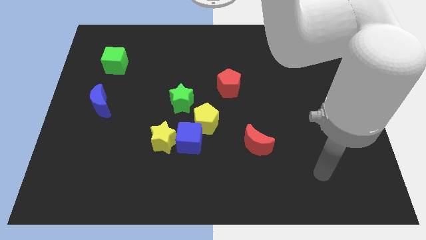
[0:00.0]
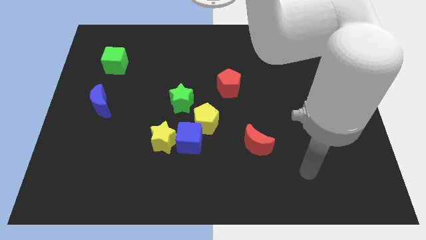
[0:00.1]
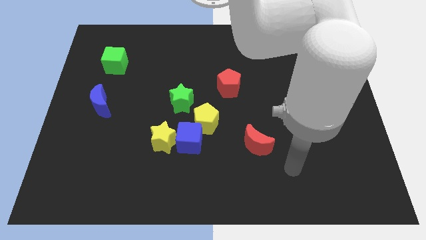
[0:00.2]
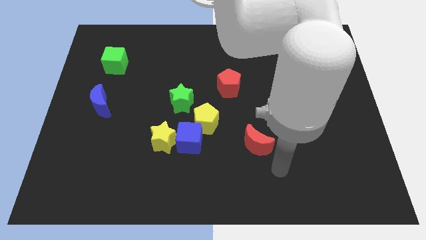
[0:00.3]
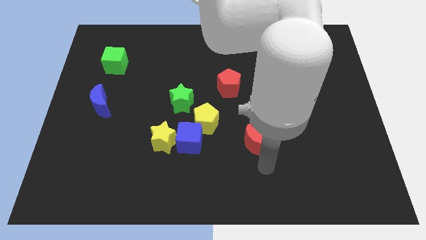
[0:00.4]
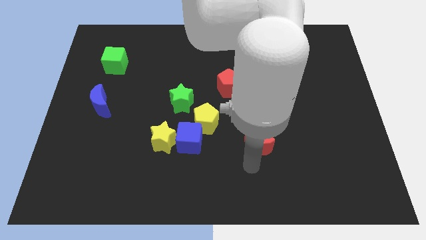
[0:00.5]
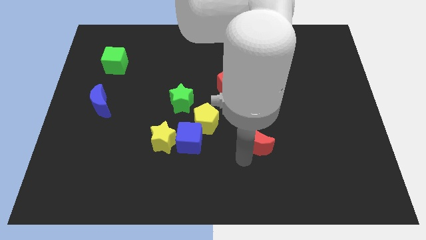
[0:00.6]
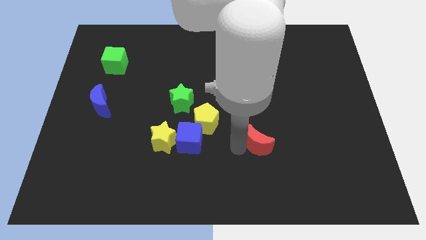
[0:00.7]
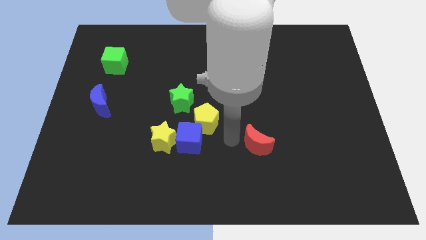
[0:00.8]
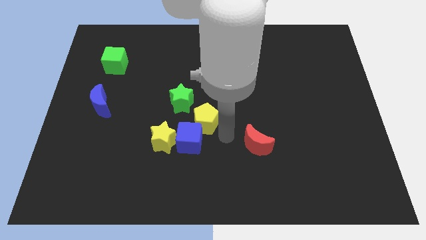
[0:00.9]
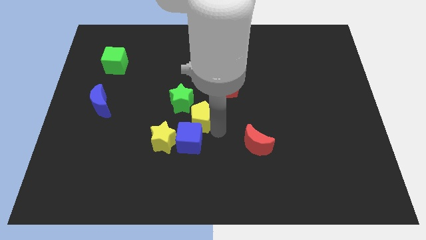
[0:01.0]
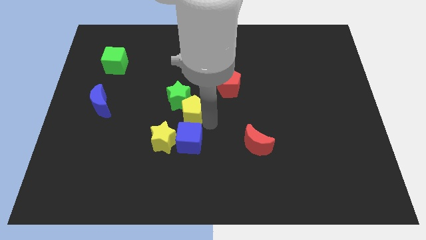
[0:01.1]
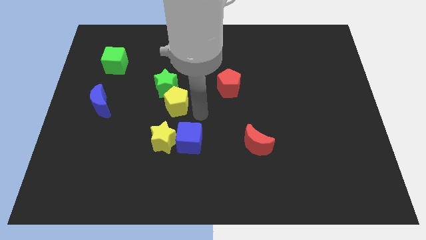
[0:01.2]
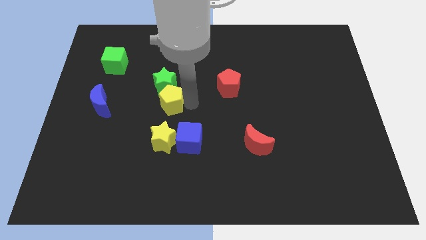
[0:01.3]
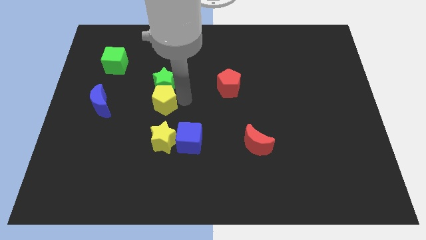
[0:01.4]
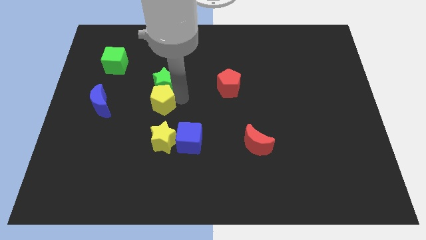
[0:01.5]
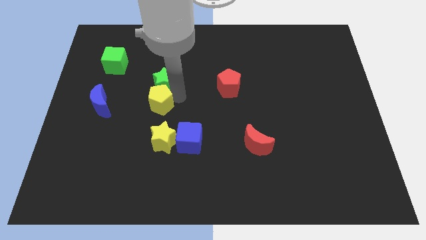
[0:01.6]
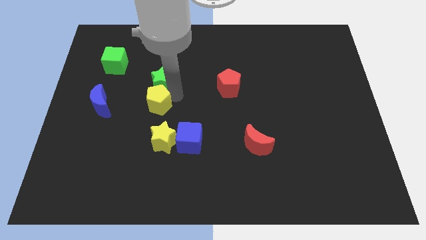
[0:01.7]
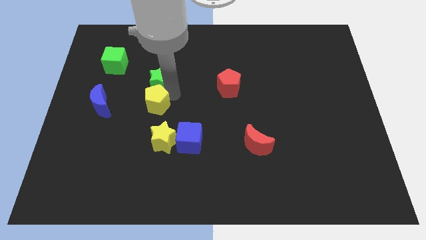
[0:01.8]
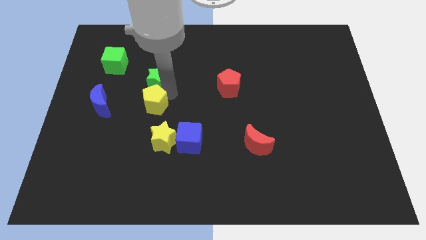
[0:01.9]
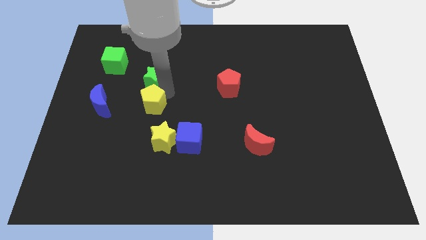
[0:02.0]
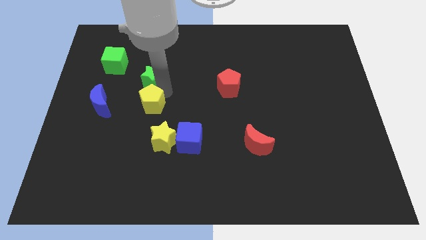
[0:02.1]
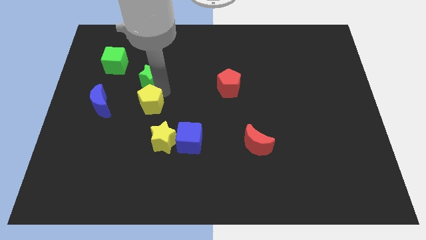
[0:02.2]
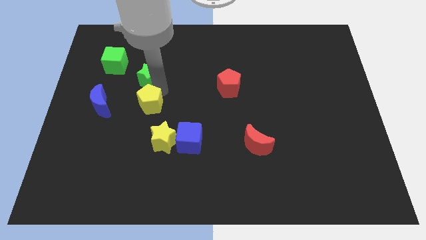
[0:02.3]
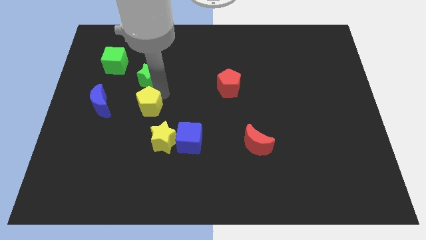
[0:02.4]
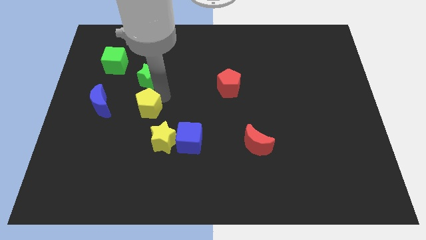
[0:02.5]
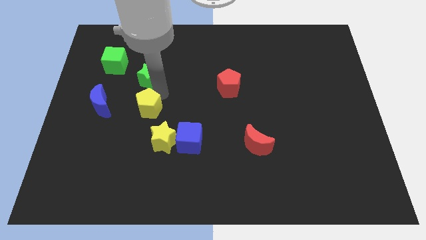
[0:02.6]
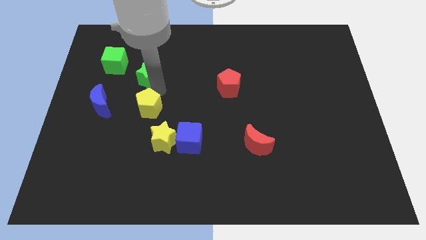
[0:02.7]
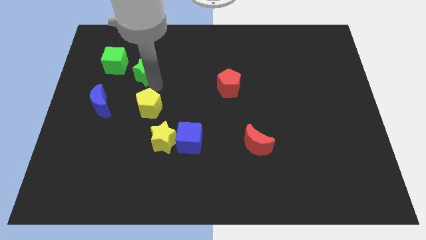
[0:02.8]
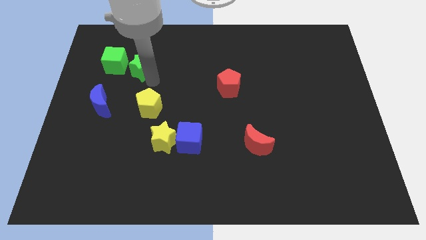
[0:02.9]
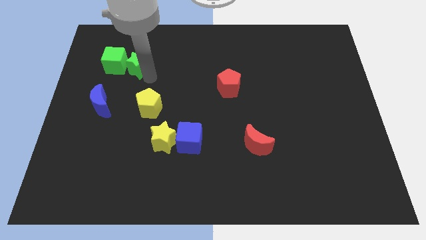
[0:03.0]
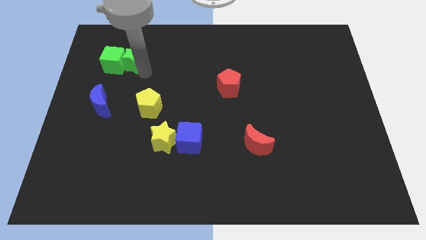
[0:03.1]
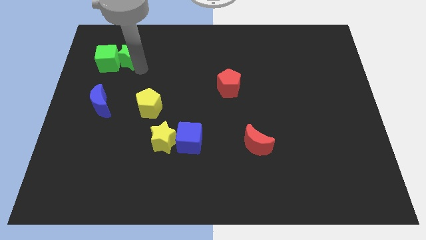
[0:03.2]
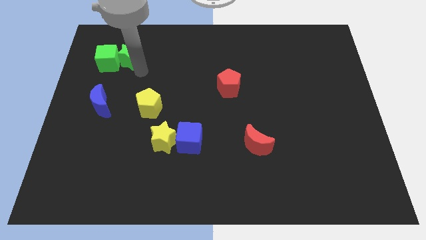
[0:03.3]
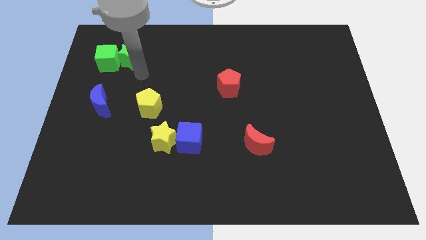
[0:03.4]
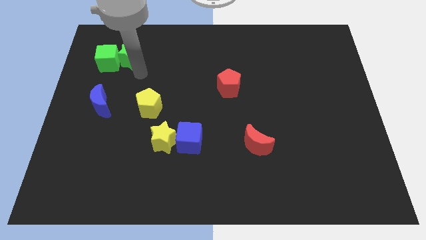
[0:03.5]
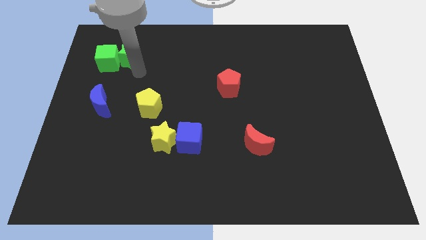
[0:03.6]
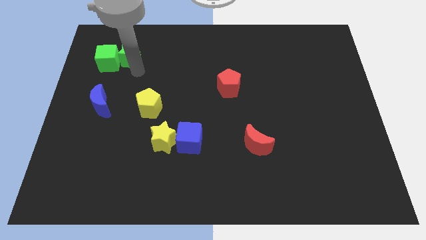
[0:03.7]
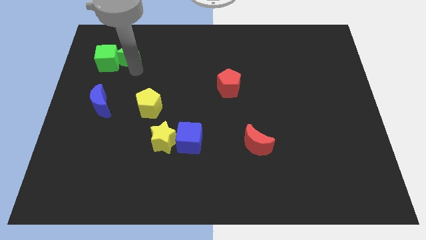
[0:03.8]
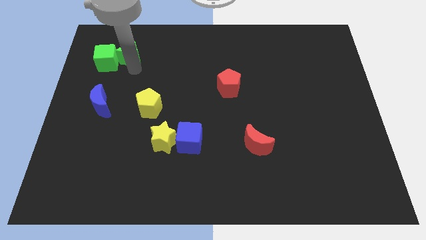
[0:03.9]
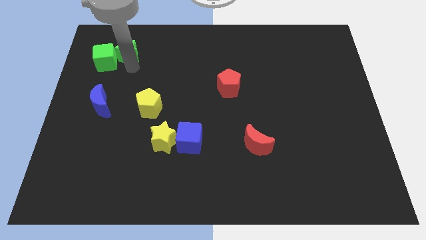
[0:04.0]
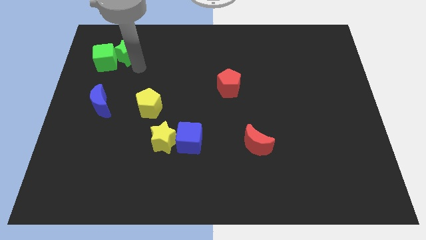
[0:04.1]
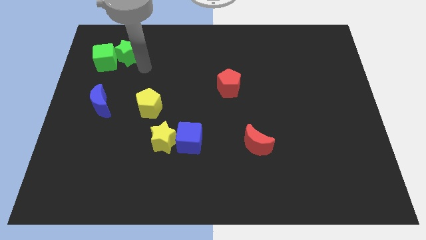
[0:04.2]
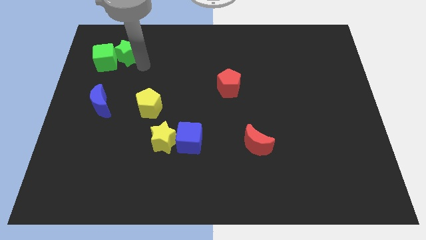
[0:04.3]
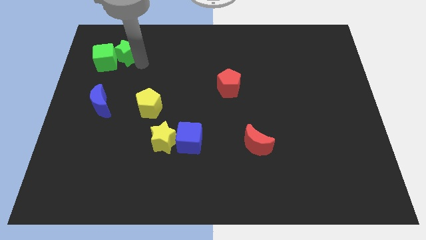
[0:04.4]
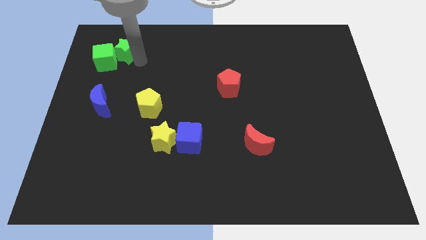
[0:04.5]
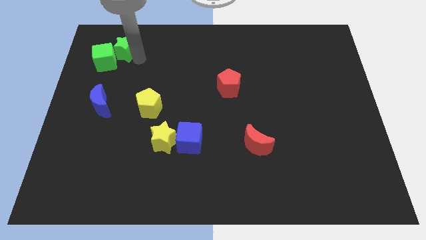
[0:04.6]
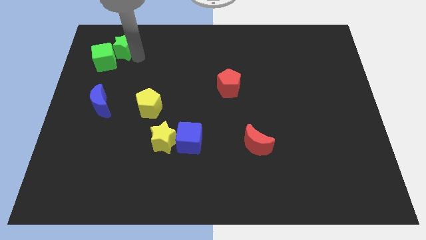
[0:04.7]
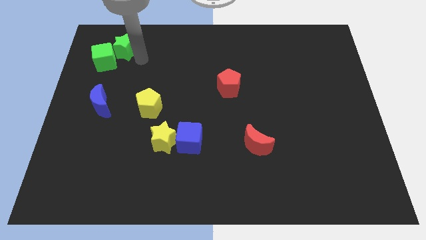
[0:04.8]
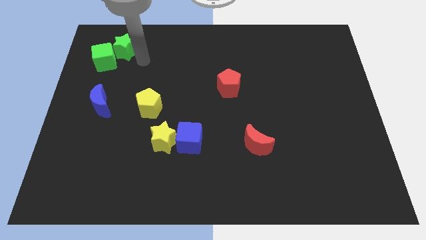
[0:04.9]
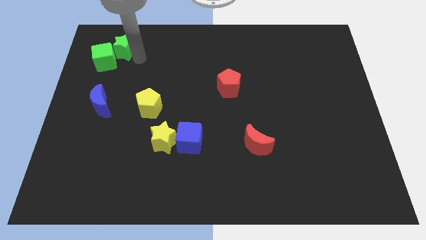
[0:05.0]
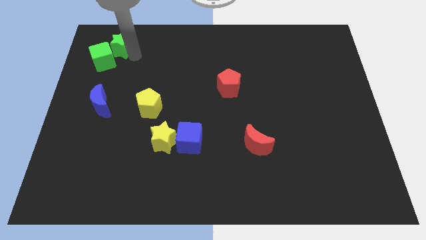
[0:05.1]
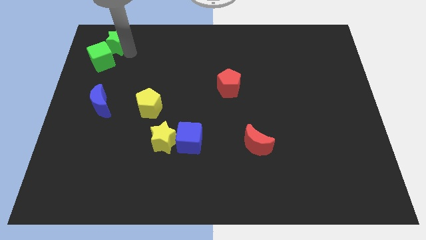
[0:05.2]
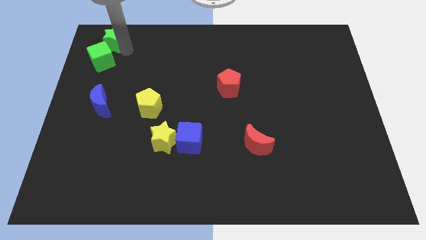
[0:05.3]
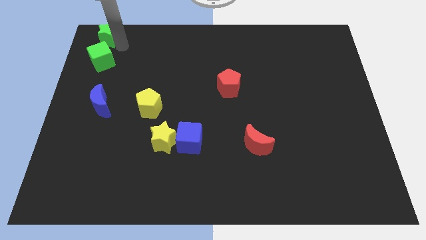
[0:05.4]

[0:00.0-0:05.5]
slide the green star to the upper left corner
